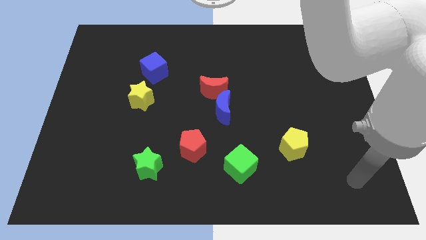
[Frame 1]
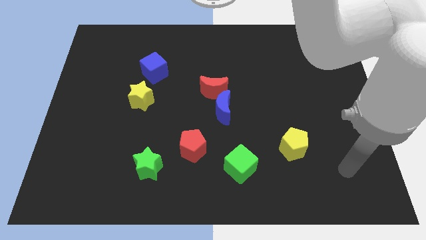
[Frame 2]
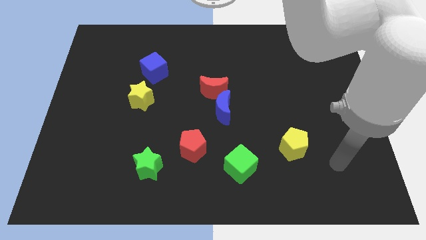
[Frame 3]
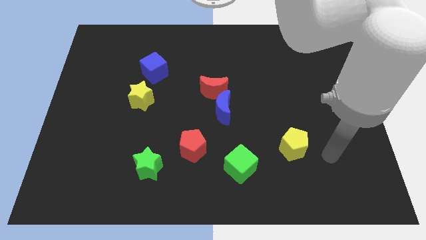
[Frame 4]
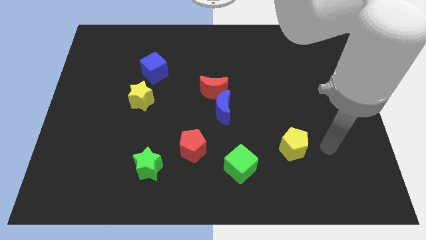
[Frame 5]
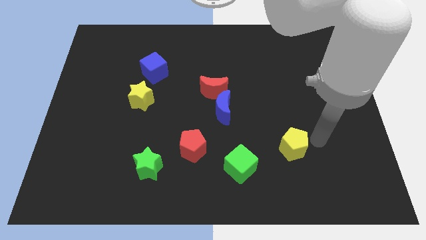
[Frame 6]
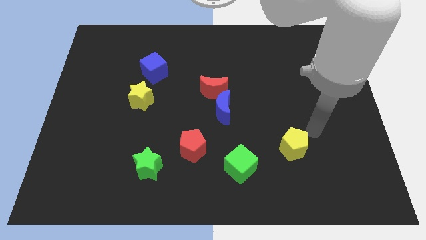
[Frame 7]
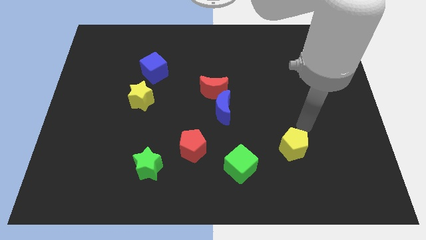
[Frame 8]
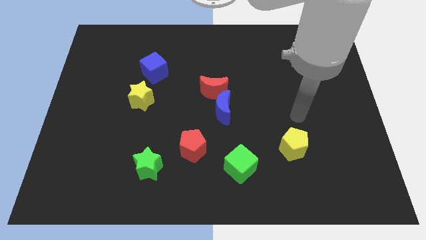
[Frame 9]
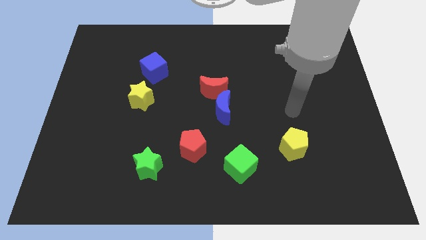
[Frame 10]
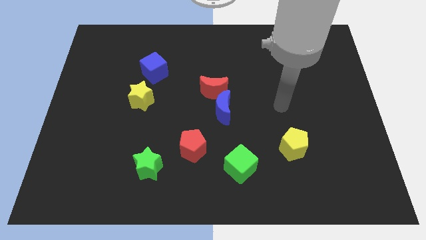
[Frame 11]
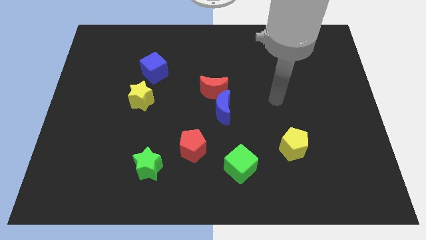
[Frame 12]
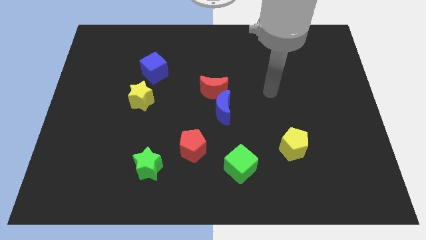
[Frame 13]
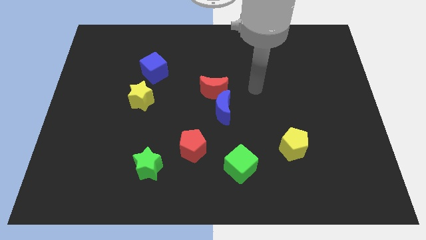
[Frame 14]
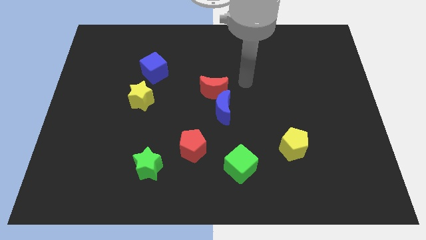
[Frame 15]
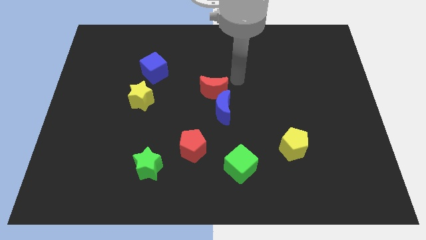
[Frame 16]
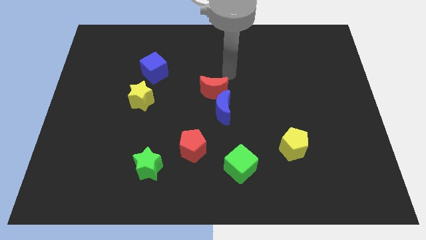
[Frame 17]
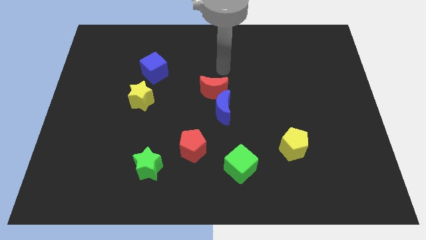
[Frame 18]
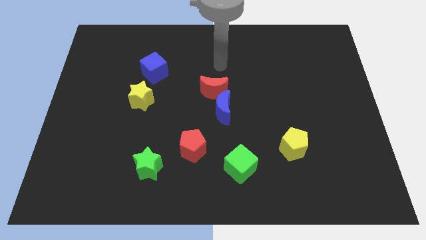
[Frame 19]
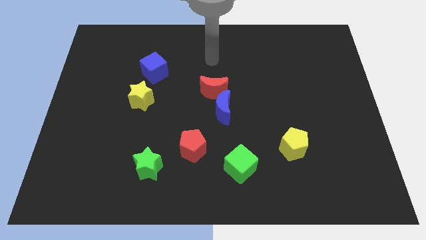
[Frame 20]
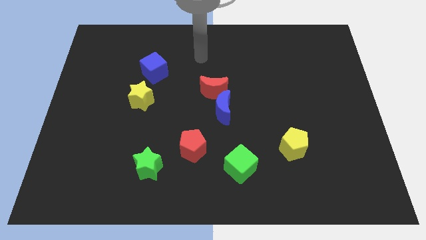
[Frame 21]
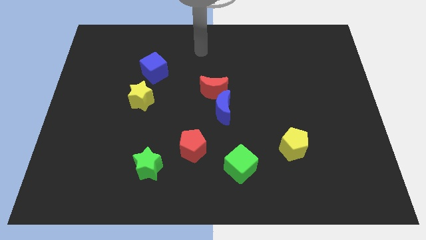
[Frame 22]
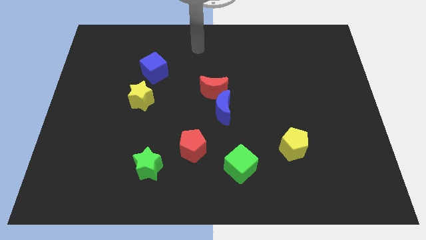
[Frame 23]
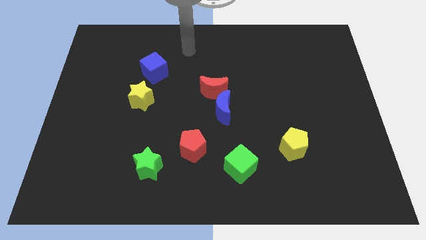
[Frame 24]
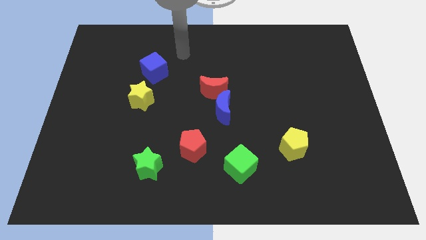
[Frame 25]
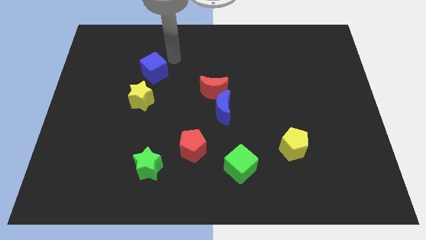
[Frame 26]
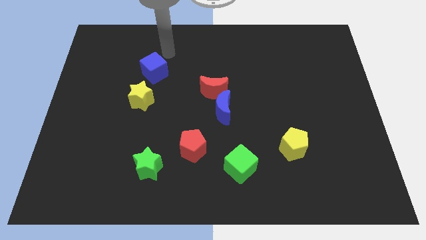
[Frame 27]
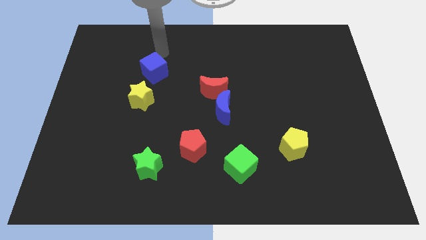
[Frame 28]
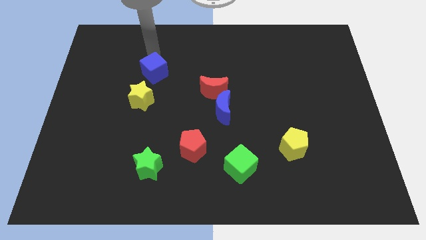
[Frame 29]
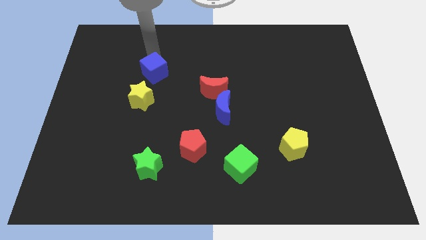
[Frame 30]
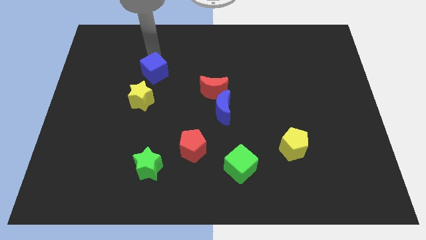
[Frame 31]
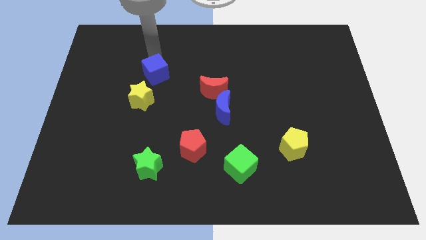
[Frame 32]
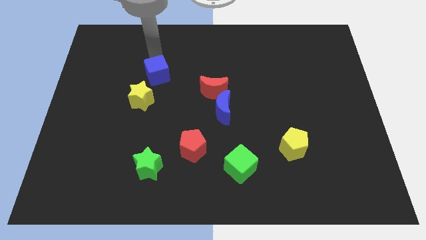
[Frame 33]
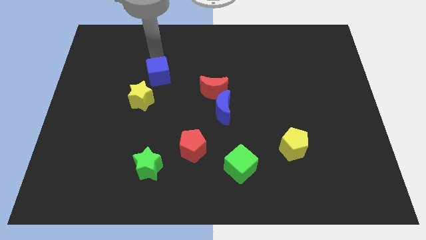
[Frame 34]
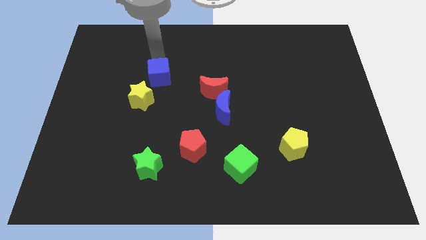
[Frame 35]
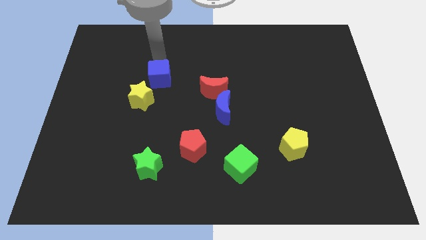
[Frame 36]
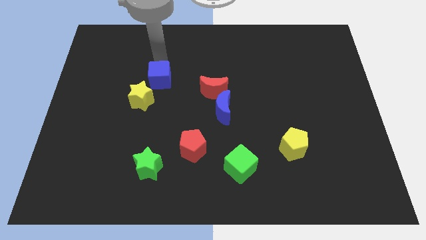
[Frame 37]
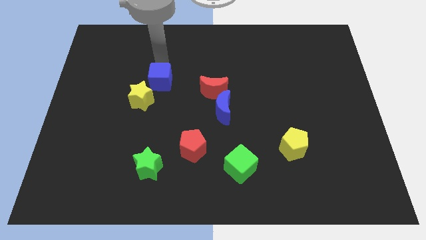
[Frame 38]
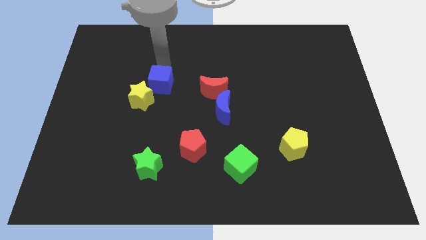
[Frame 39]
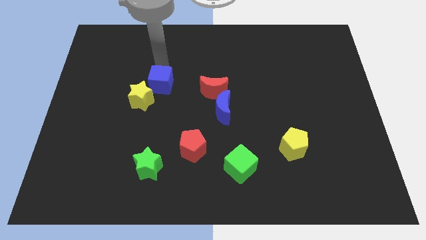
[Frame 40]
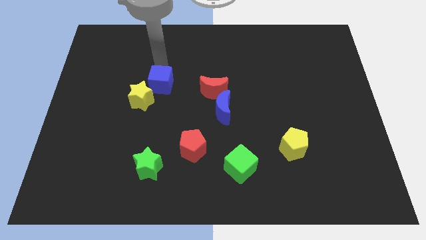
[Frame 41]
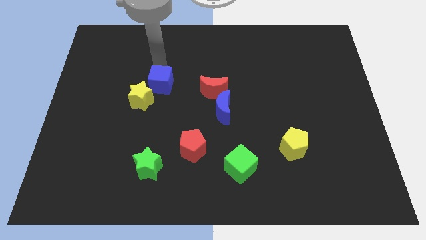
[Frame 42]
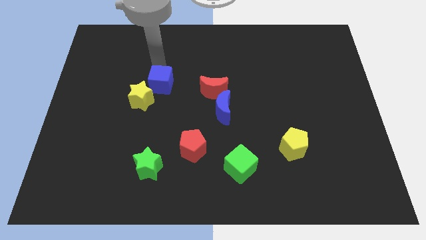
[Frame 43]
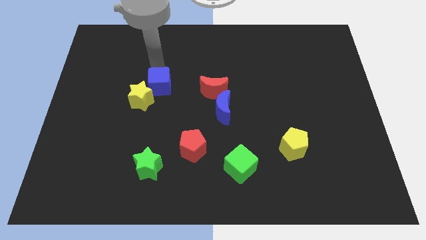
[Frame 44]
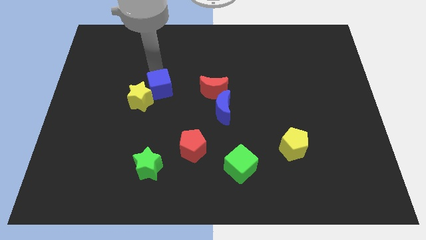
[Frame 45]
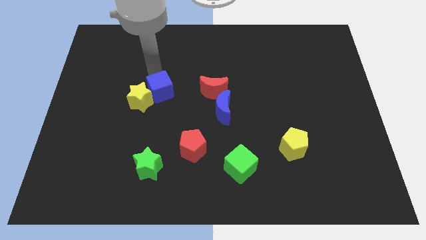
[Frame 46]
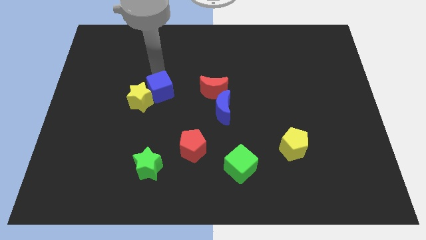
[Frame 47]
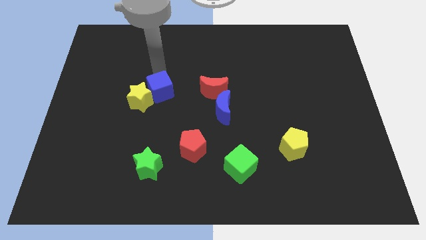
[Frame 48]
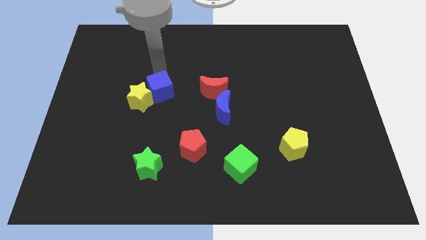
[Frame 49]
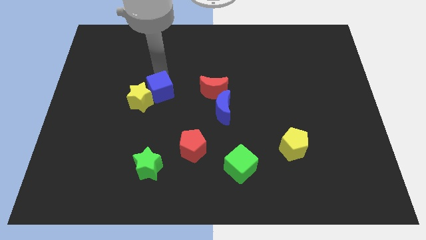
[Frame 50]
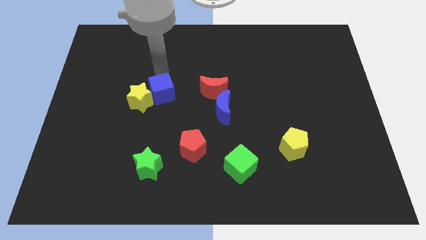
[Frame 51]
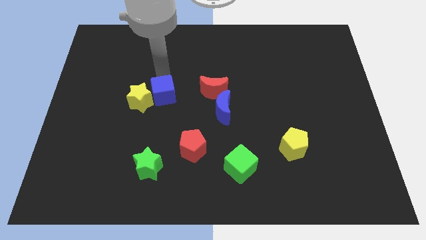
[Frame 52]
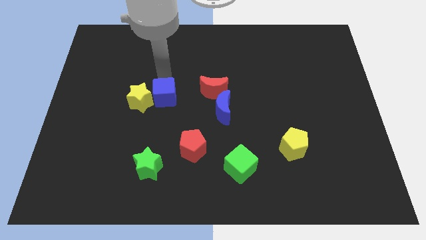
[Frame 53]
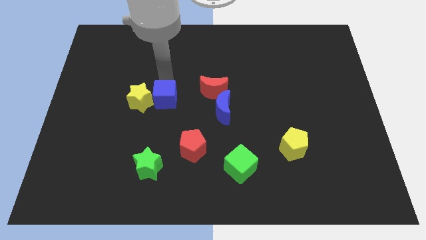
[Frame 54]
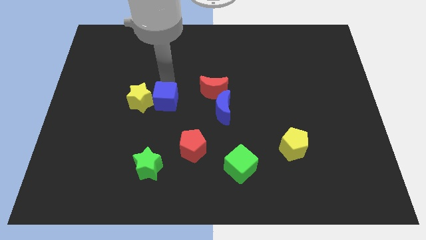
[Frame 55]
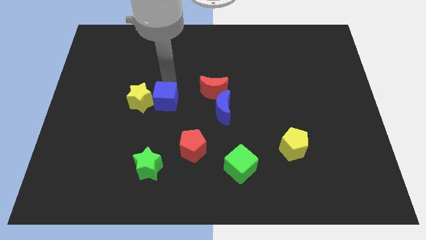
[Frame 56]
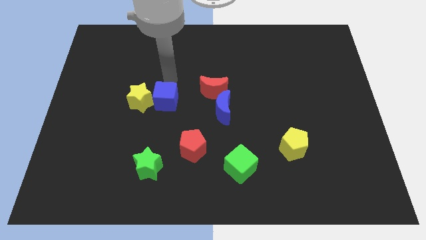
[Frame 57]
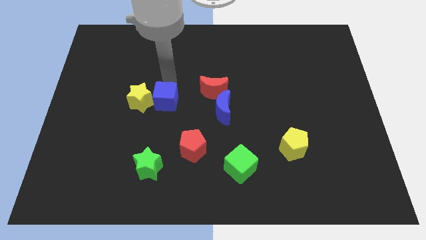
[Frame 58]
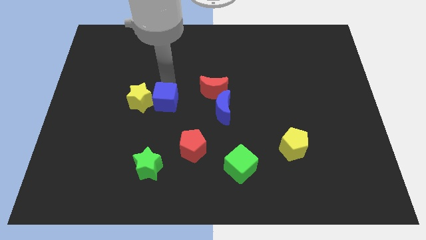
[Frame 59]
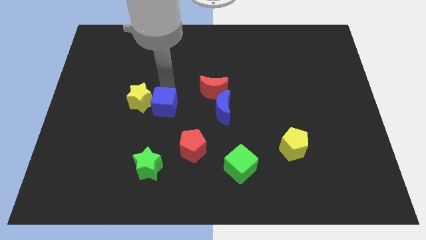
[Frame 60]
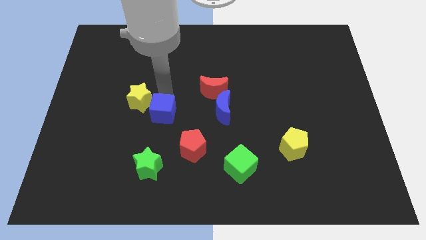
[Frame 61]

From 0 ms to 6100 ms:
move the blue cube to the top left of the red pentagon
